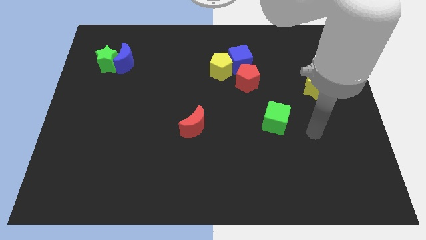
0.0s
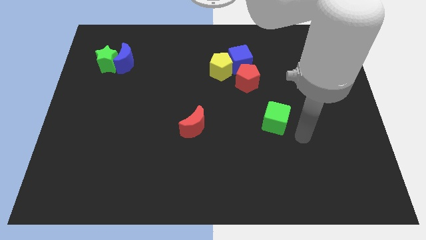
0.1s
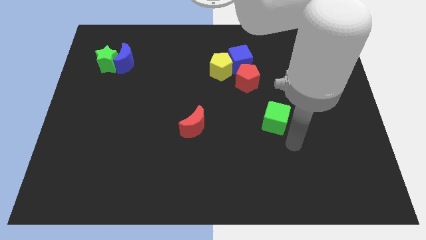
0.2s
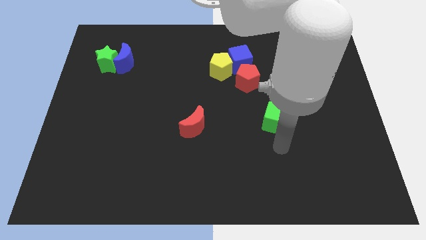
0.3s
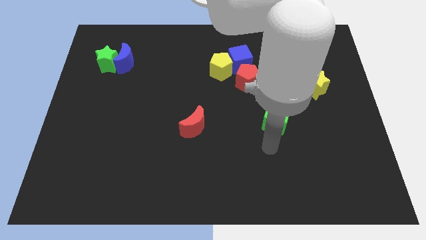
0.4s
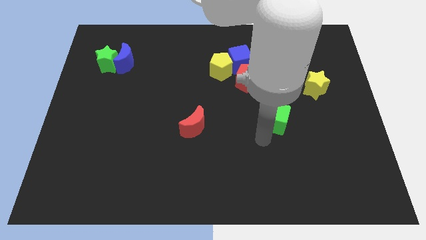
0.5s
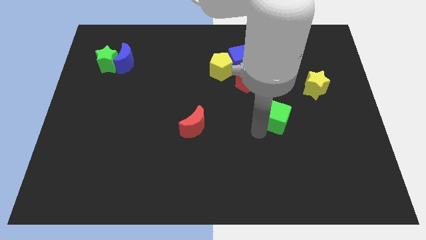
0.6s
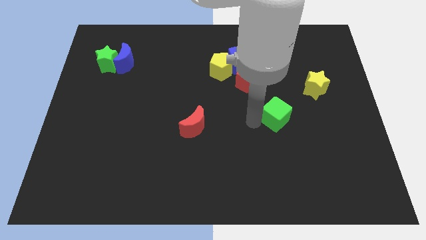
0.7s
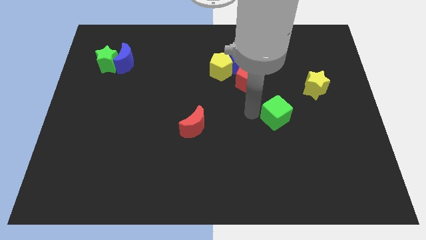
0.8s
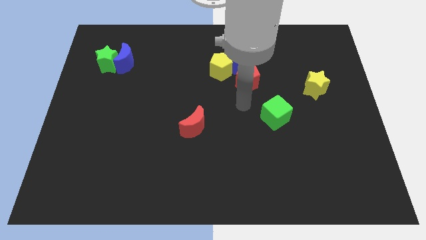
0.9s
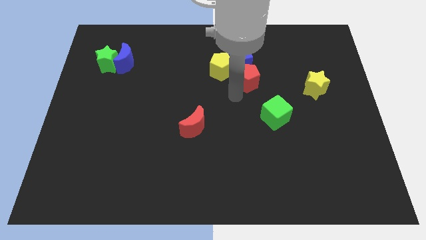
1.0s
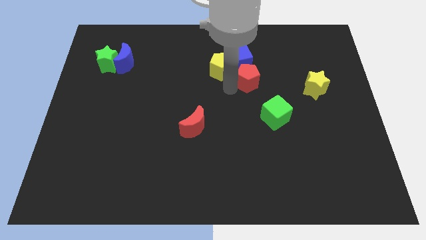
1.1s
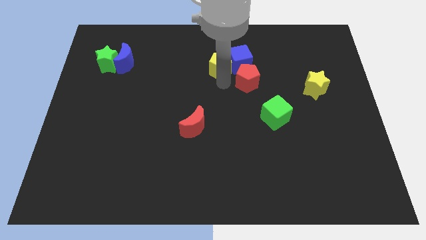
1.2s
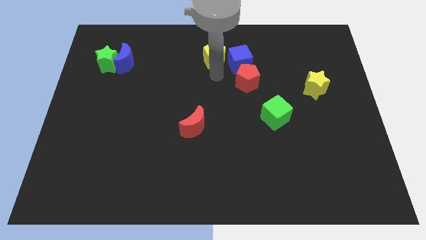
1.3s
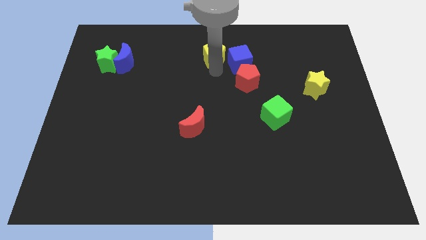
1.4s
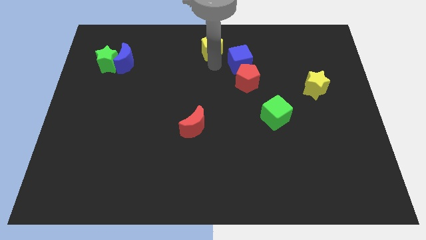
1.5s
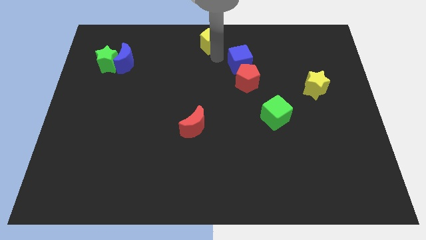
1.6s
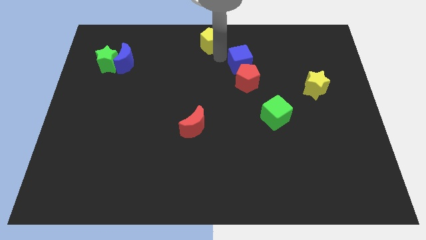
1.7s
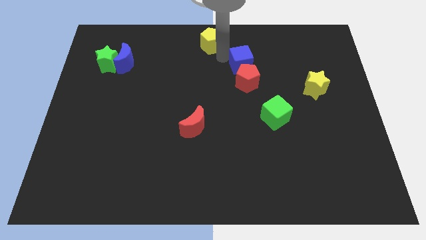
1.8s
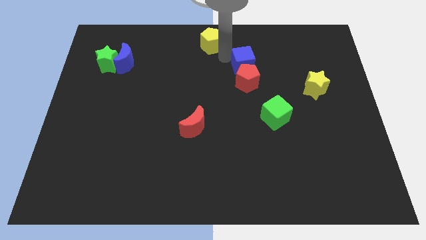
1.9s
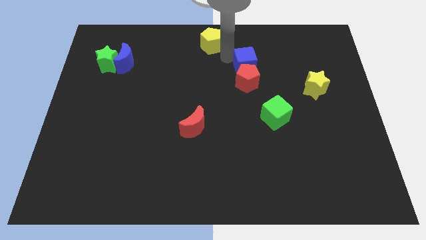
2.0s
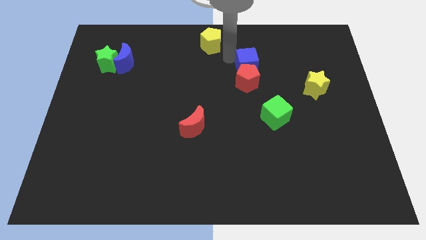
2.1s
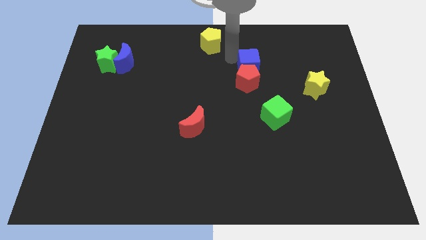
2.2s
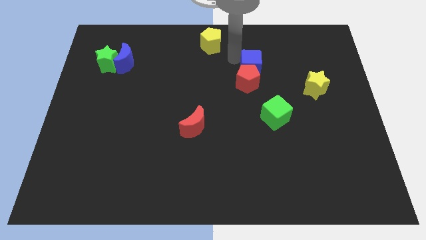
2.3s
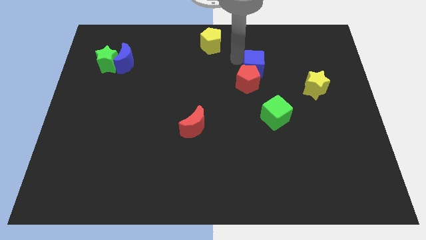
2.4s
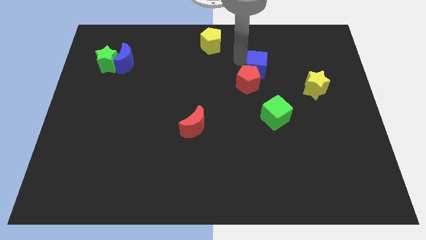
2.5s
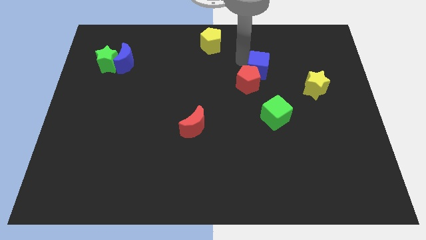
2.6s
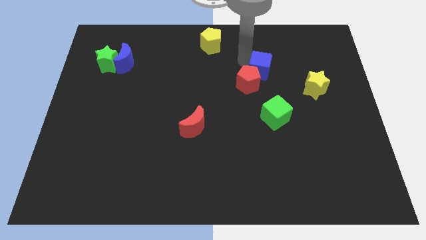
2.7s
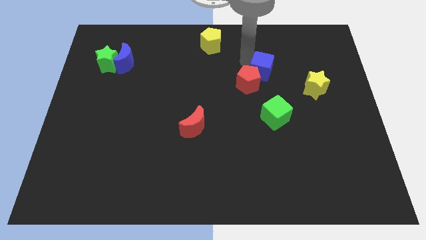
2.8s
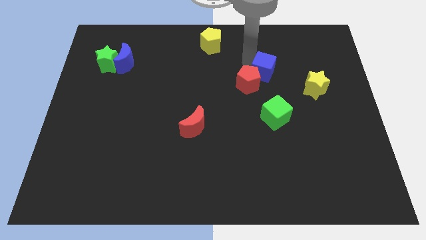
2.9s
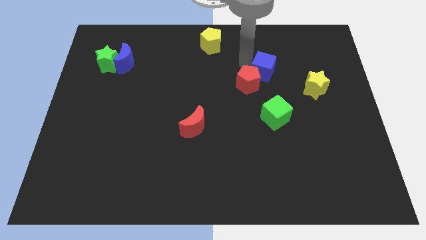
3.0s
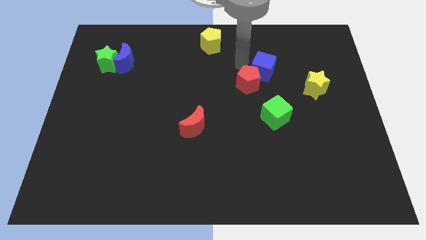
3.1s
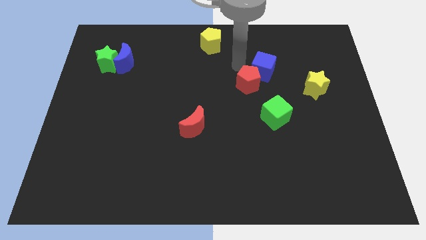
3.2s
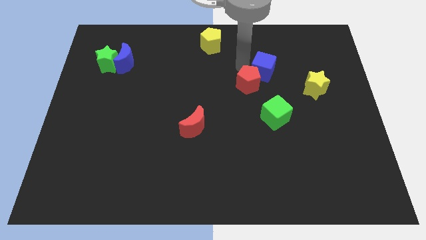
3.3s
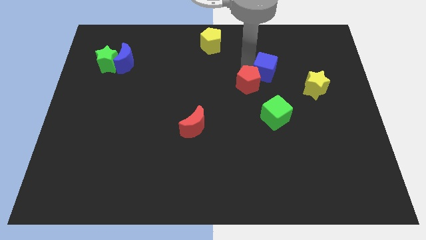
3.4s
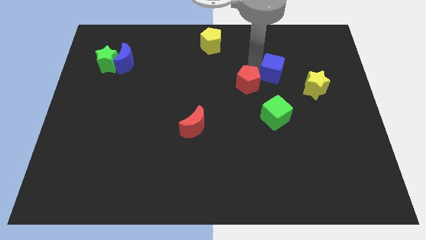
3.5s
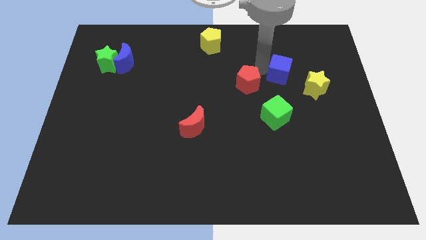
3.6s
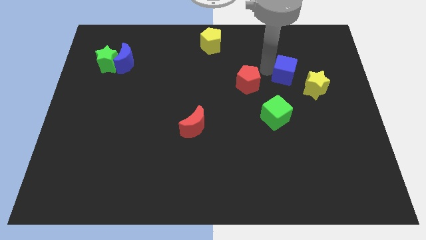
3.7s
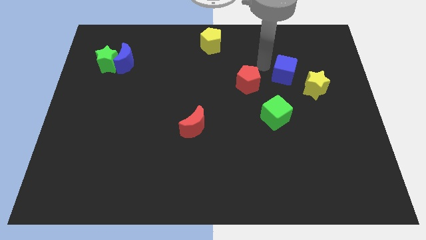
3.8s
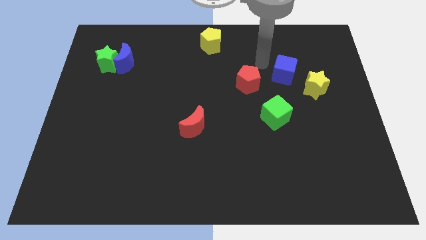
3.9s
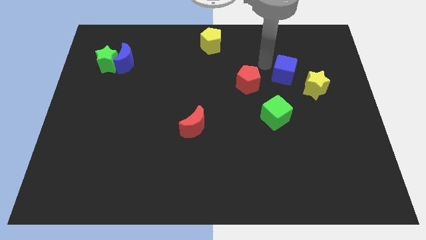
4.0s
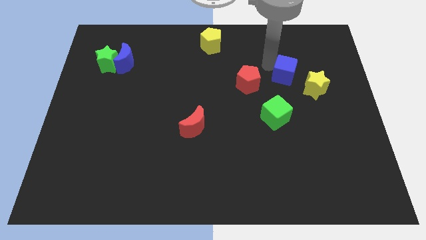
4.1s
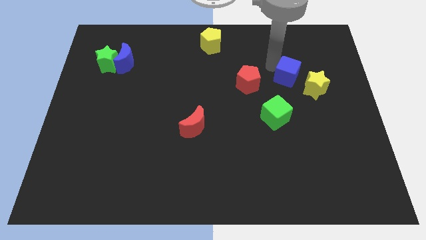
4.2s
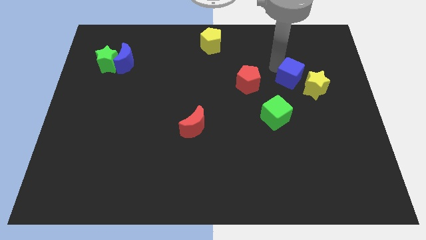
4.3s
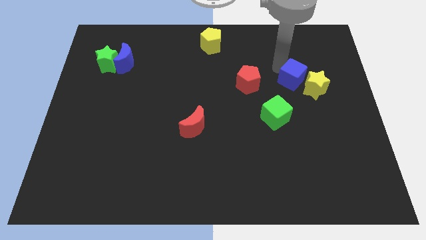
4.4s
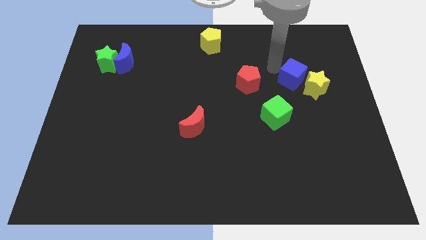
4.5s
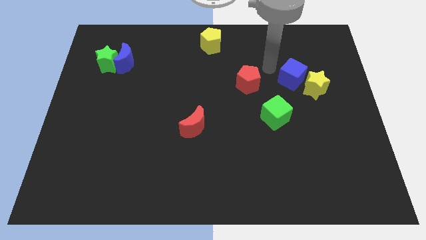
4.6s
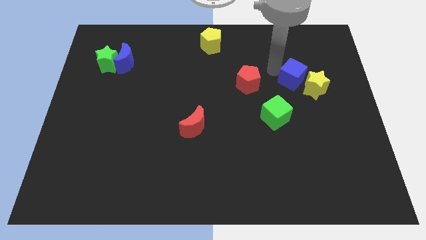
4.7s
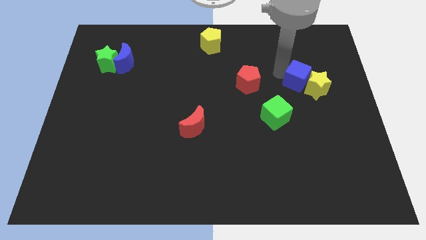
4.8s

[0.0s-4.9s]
push the blue cube next to the yellow star

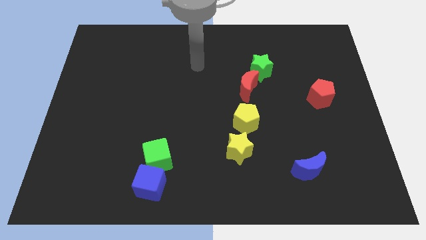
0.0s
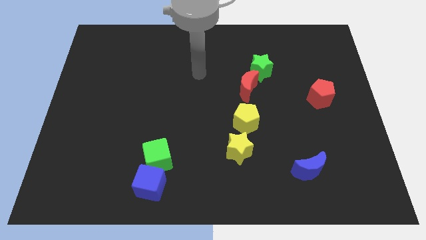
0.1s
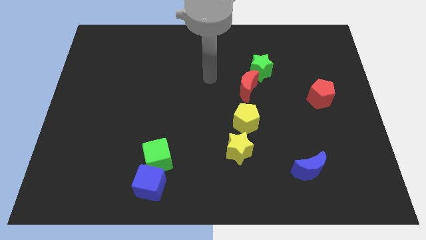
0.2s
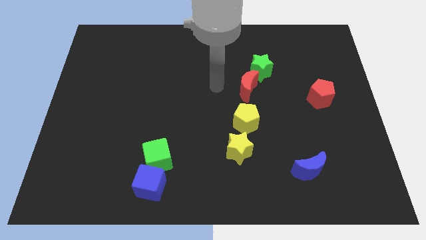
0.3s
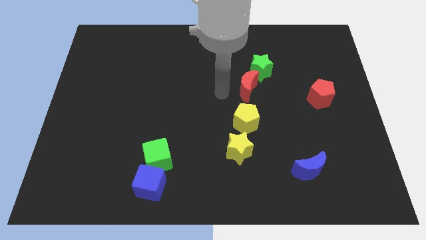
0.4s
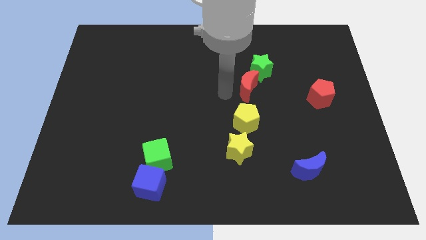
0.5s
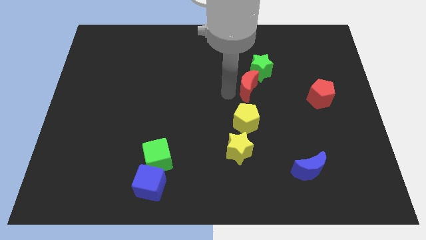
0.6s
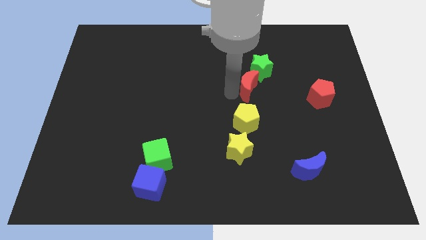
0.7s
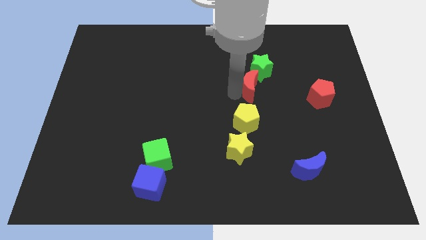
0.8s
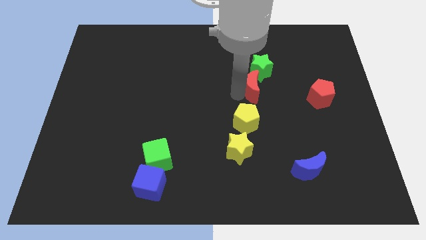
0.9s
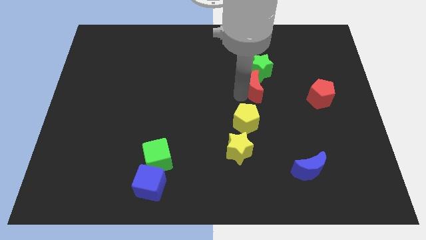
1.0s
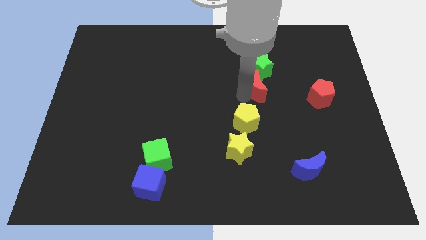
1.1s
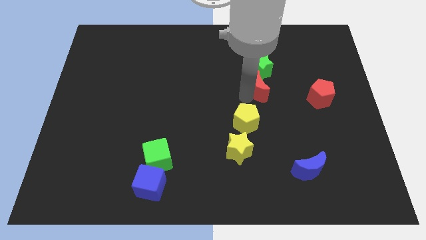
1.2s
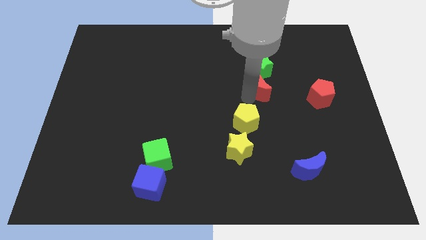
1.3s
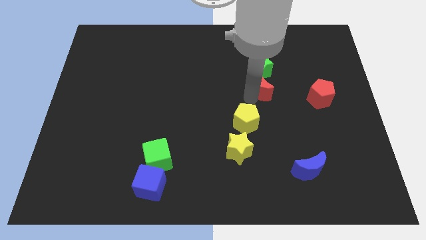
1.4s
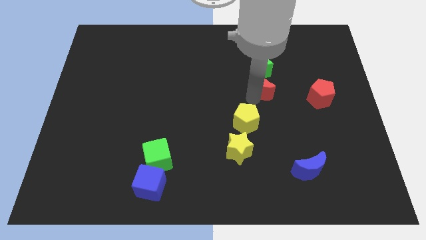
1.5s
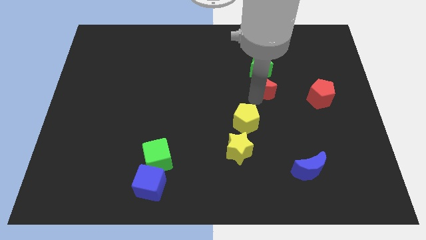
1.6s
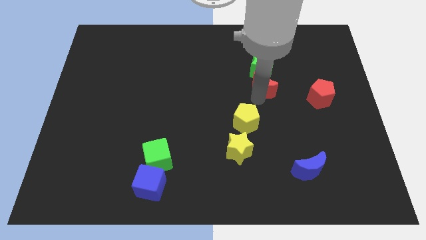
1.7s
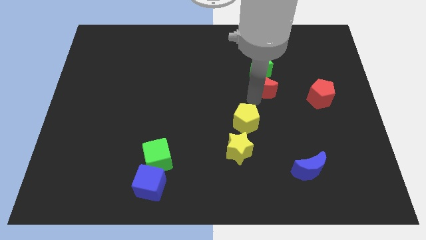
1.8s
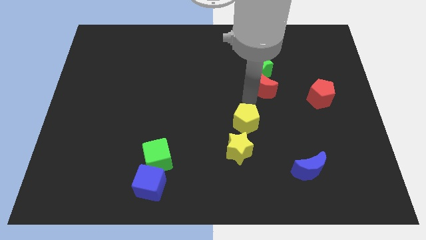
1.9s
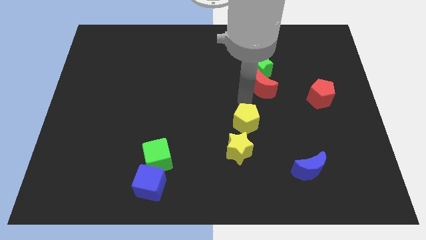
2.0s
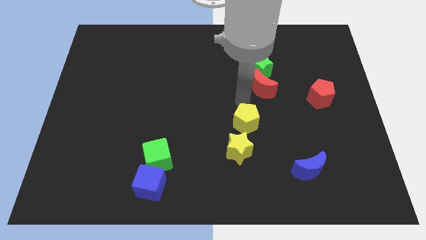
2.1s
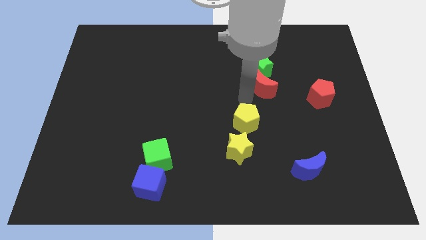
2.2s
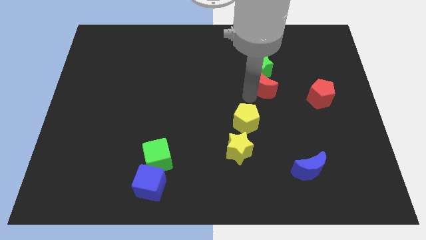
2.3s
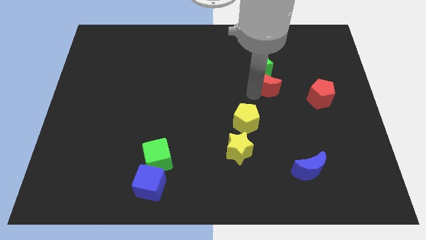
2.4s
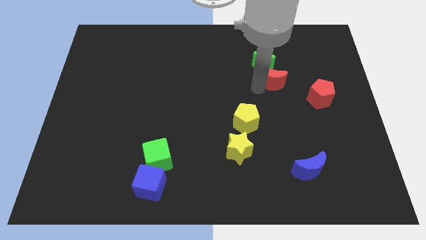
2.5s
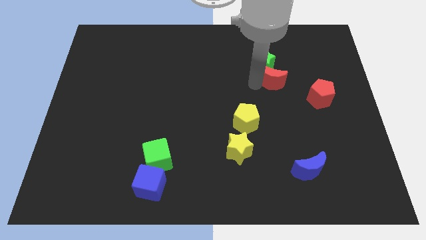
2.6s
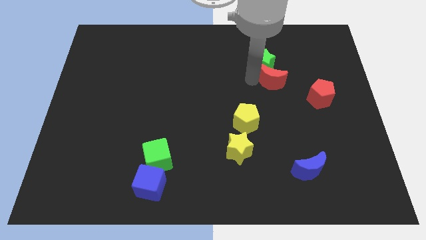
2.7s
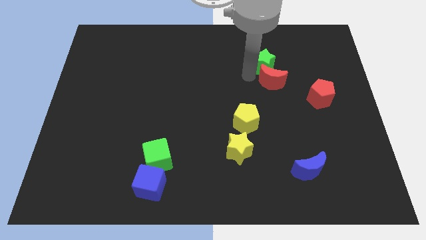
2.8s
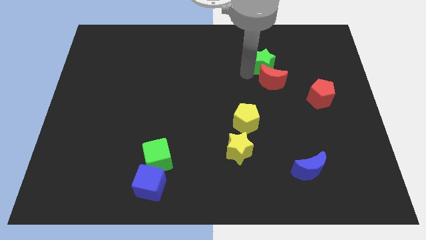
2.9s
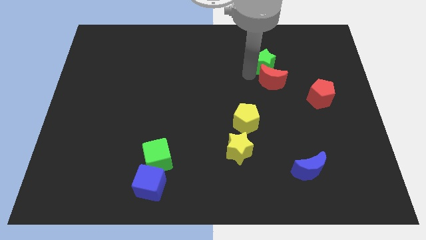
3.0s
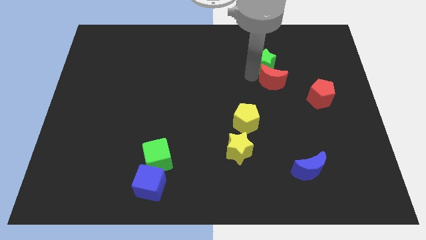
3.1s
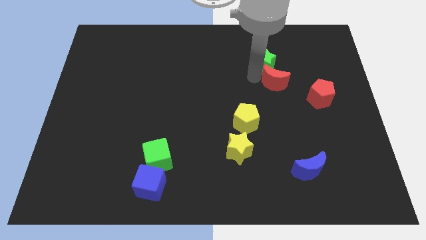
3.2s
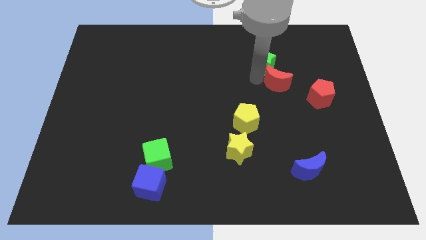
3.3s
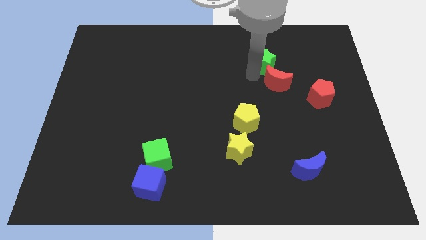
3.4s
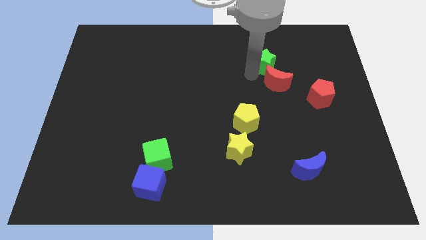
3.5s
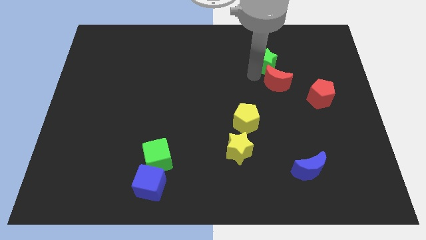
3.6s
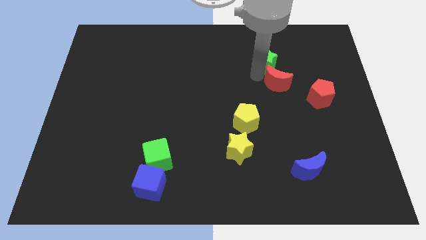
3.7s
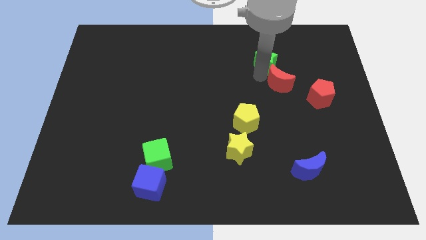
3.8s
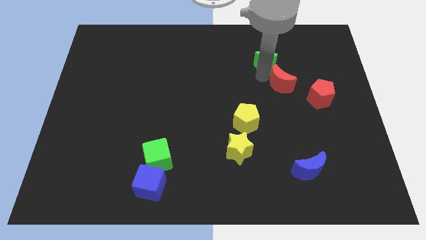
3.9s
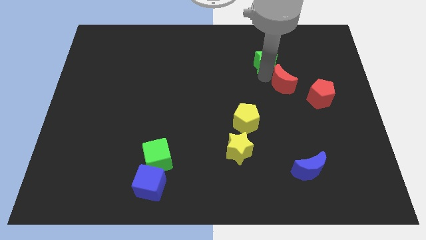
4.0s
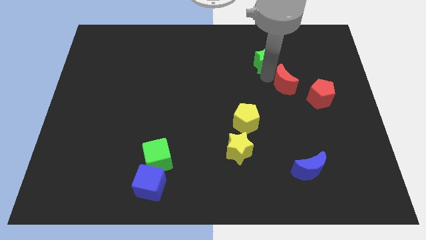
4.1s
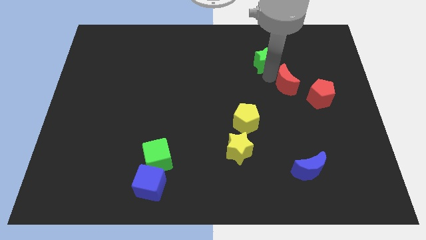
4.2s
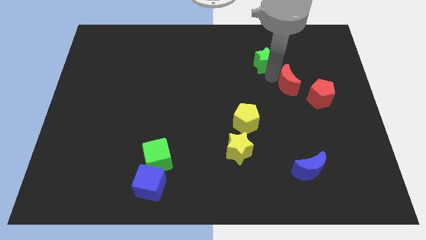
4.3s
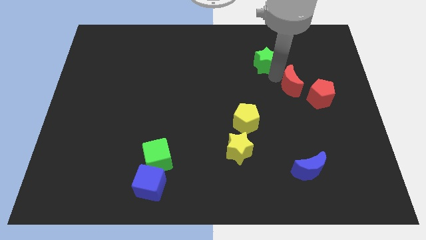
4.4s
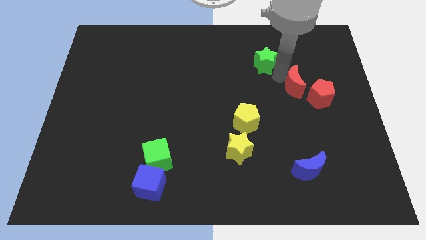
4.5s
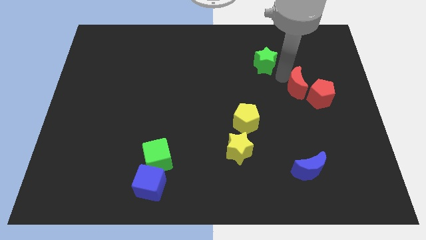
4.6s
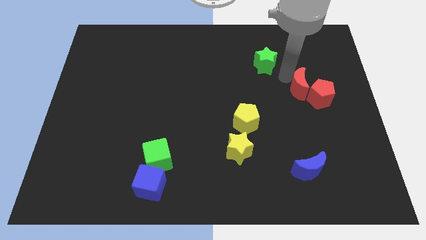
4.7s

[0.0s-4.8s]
slide the red moon next to the red pentagon
